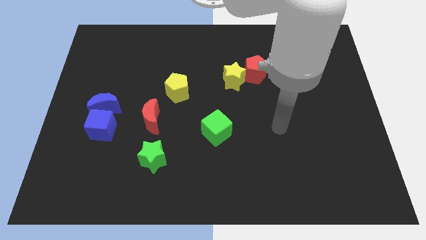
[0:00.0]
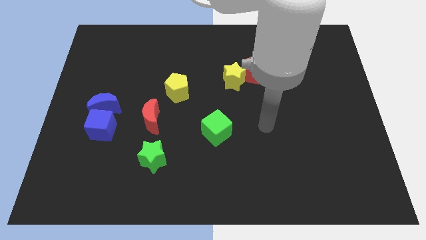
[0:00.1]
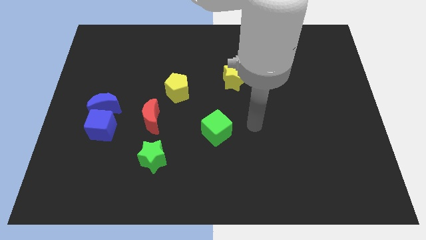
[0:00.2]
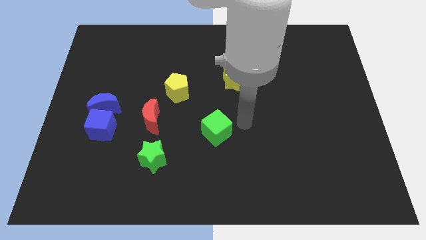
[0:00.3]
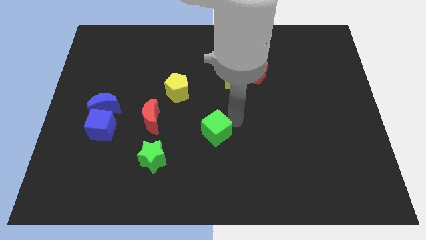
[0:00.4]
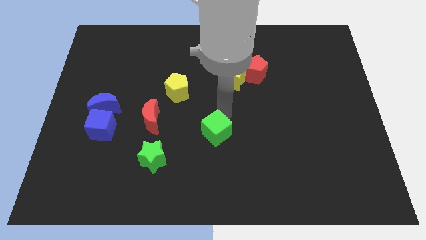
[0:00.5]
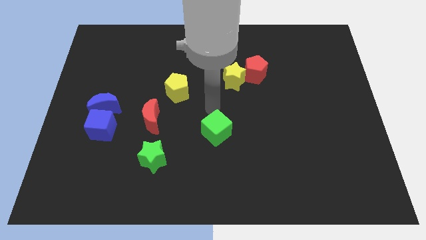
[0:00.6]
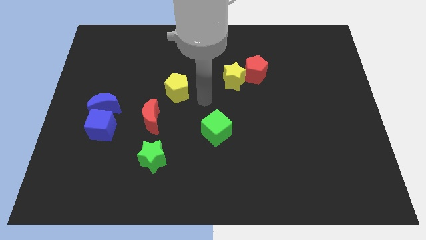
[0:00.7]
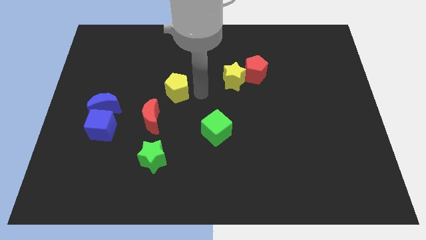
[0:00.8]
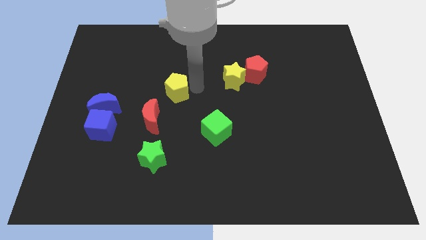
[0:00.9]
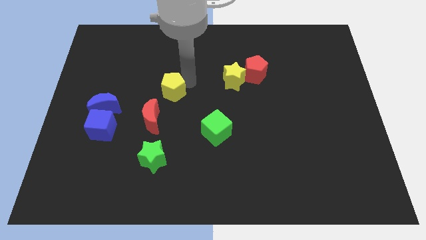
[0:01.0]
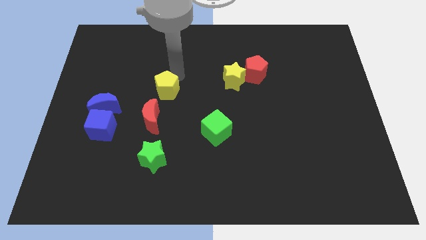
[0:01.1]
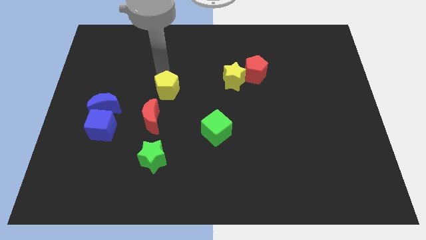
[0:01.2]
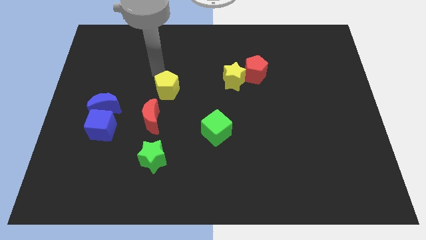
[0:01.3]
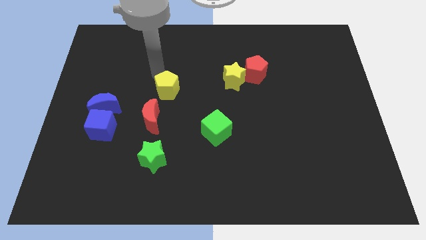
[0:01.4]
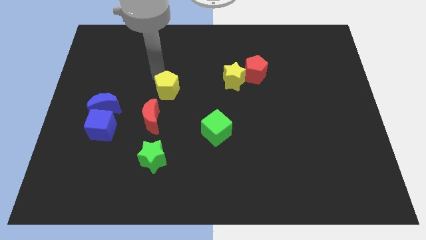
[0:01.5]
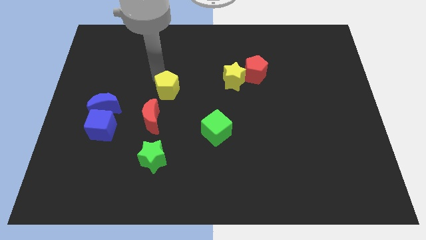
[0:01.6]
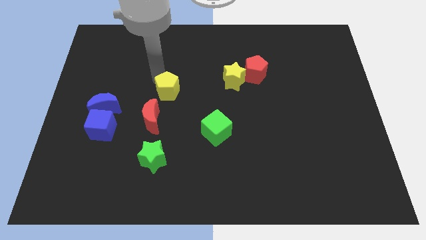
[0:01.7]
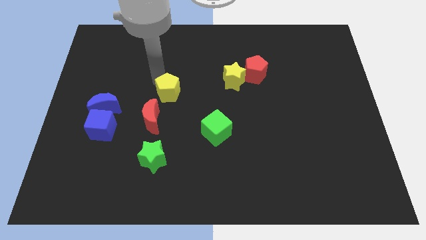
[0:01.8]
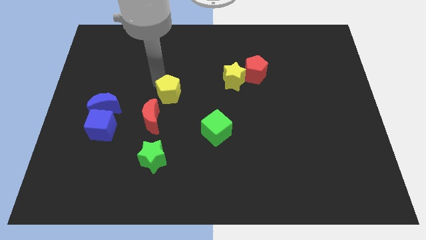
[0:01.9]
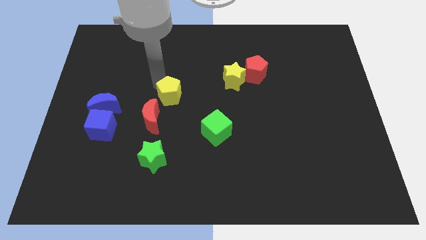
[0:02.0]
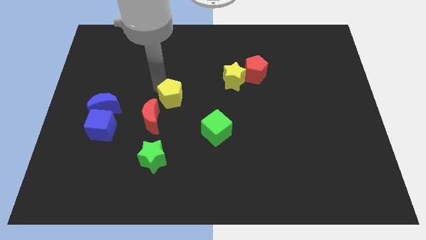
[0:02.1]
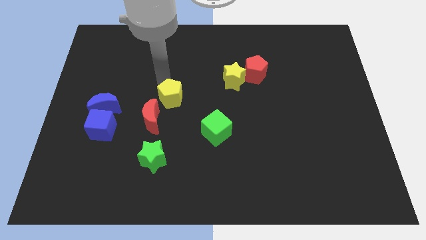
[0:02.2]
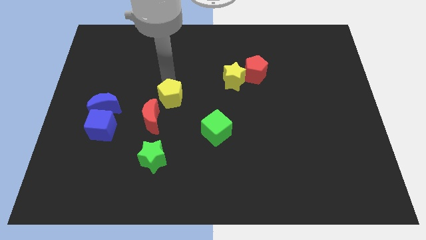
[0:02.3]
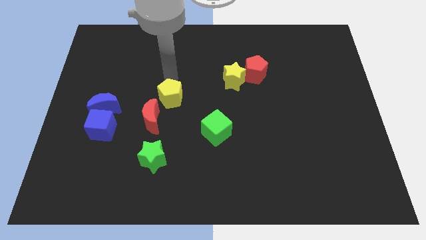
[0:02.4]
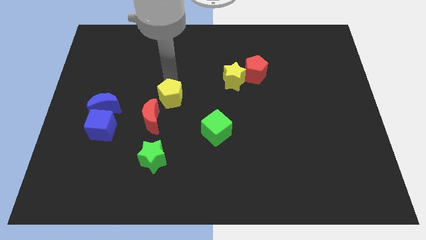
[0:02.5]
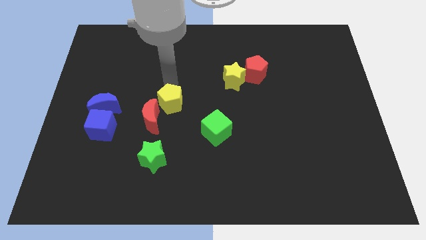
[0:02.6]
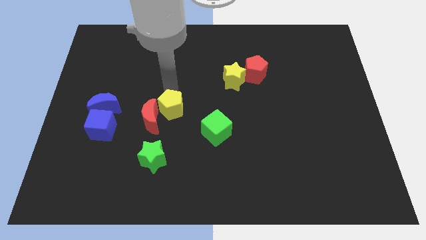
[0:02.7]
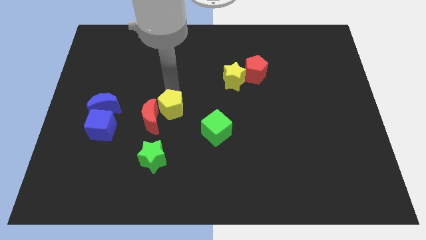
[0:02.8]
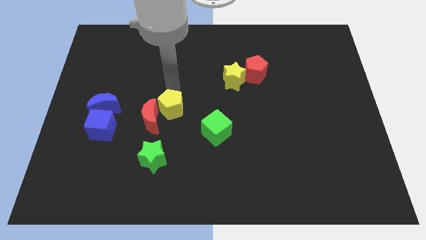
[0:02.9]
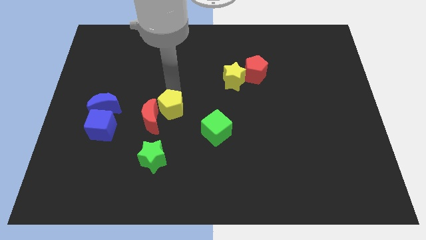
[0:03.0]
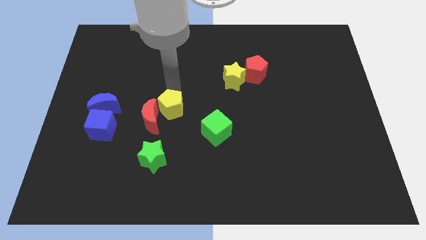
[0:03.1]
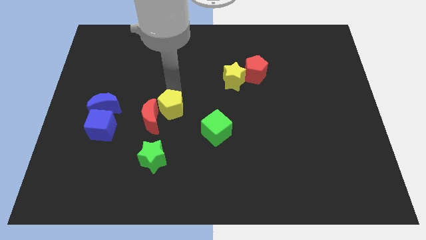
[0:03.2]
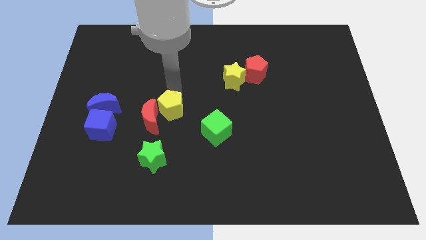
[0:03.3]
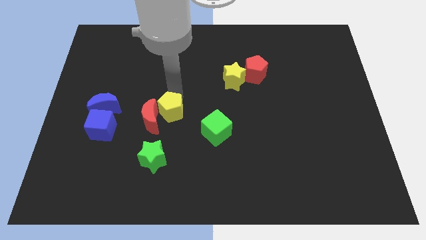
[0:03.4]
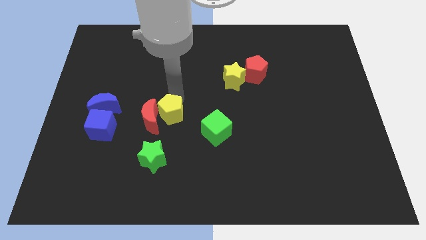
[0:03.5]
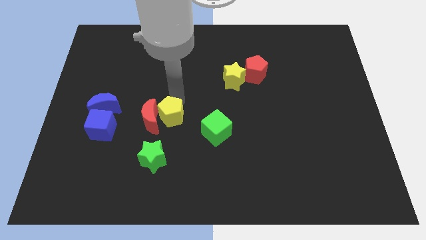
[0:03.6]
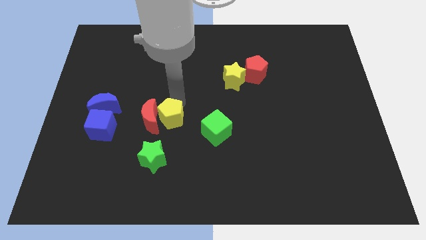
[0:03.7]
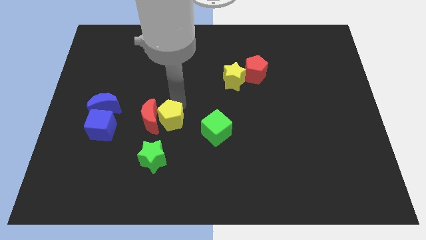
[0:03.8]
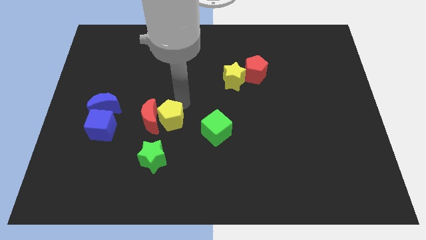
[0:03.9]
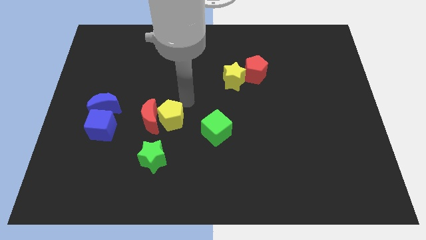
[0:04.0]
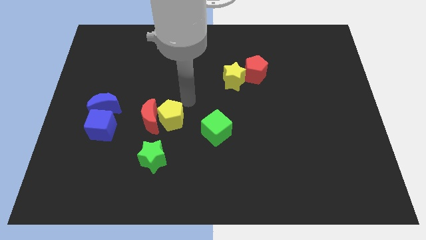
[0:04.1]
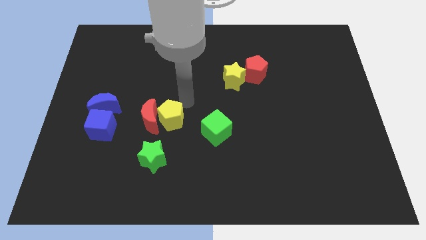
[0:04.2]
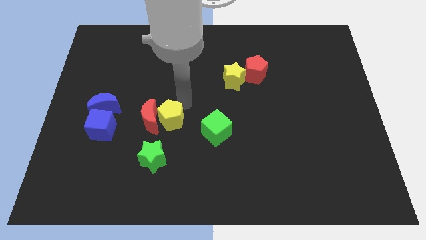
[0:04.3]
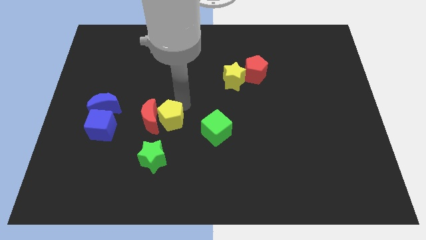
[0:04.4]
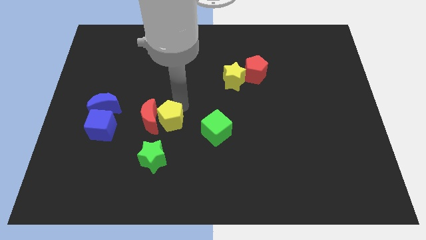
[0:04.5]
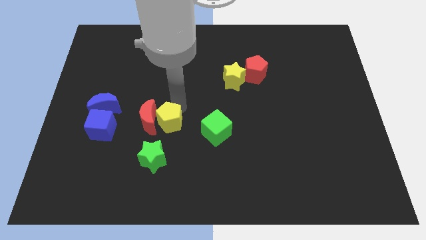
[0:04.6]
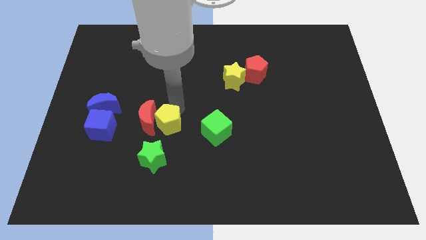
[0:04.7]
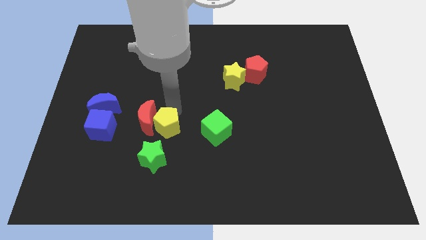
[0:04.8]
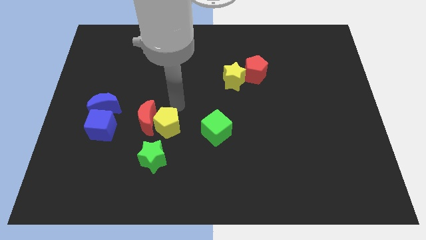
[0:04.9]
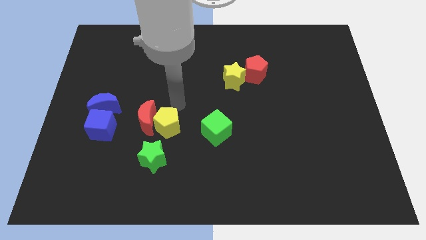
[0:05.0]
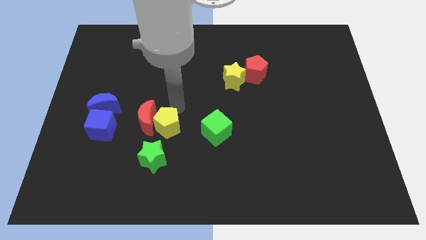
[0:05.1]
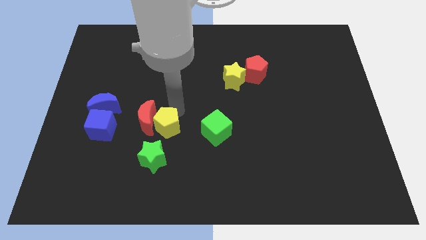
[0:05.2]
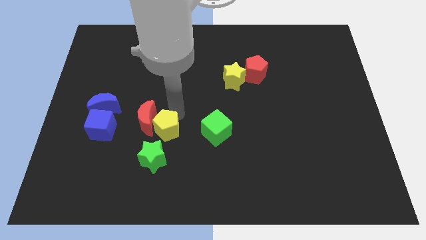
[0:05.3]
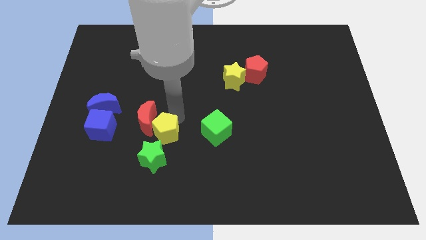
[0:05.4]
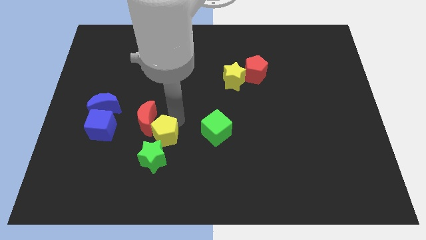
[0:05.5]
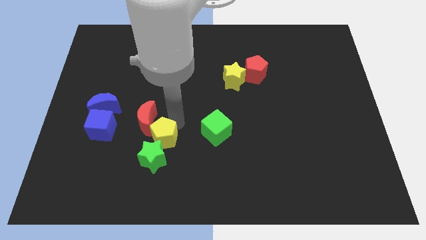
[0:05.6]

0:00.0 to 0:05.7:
slide the yellow pentagon towards the green star
